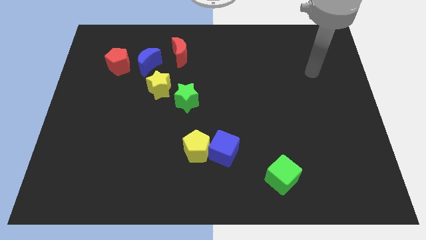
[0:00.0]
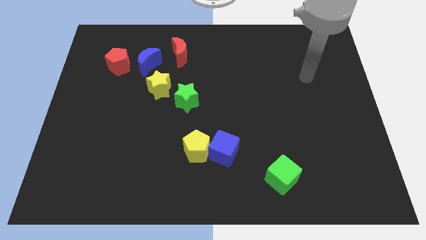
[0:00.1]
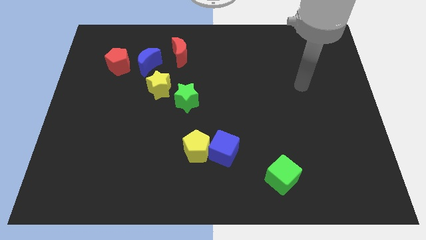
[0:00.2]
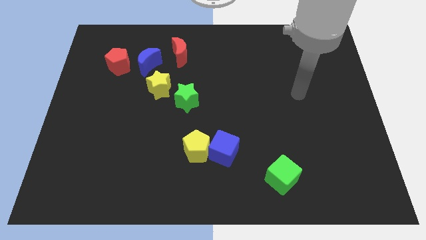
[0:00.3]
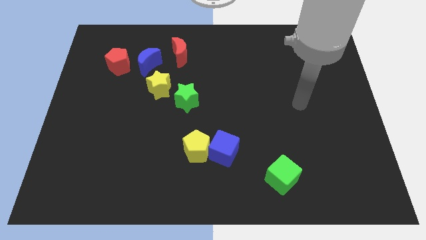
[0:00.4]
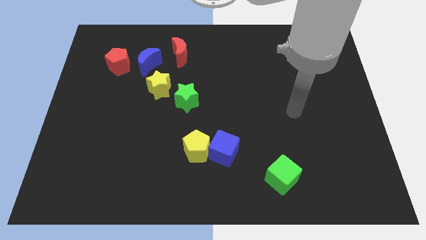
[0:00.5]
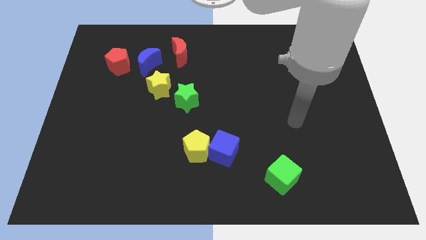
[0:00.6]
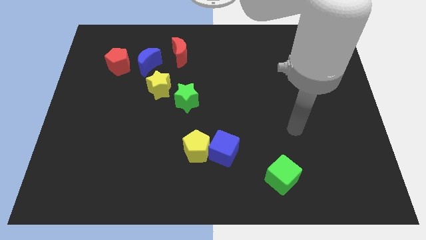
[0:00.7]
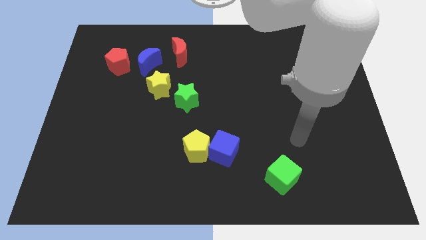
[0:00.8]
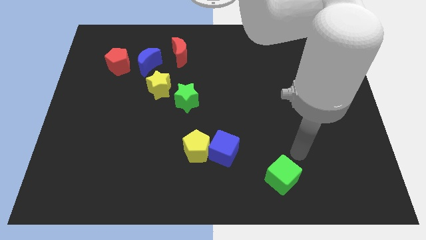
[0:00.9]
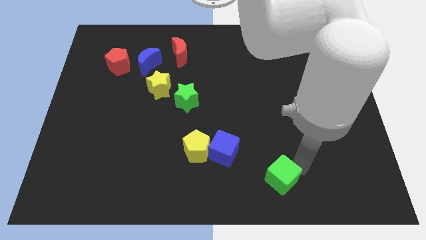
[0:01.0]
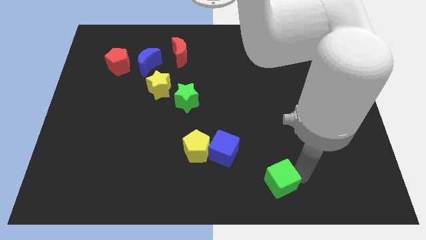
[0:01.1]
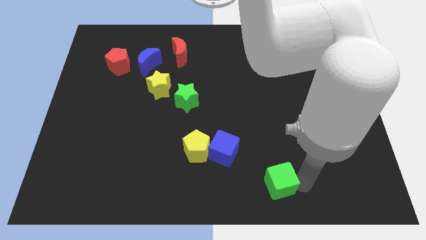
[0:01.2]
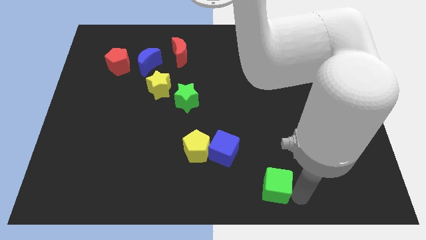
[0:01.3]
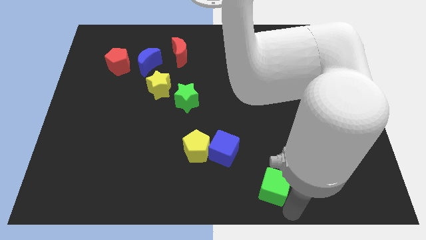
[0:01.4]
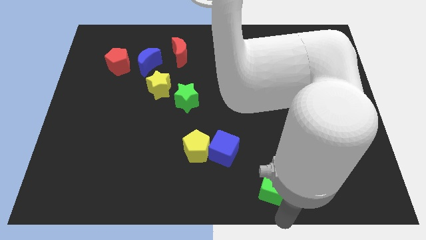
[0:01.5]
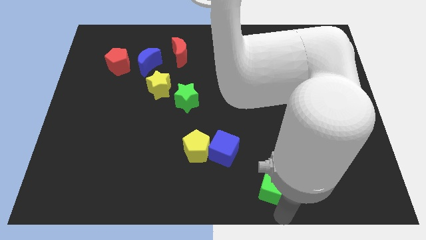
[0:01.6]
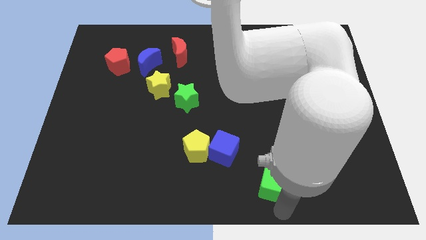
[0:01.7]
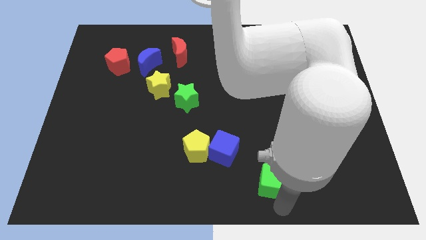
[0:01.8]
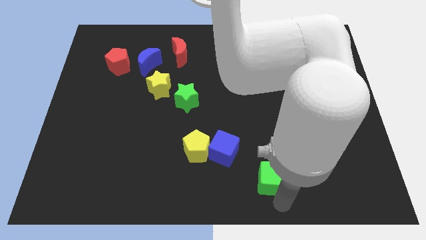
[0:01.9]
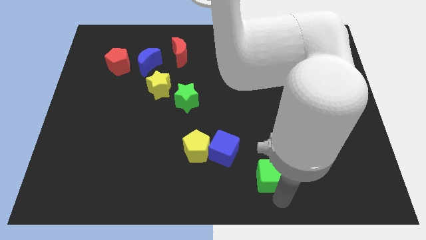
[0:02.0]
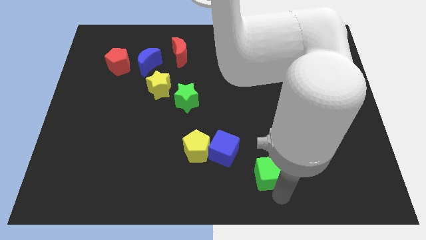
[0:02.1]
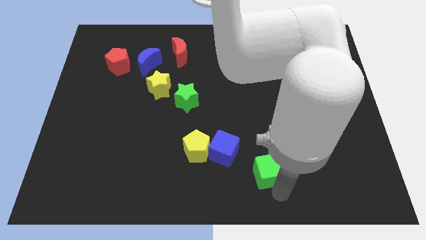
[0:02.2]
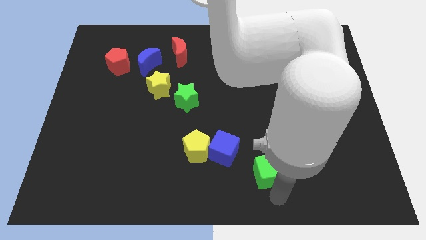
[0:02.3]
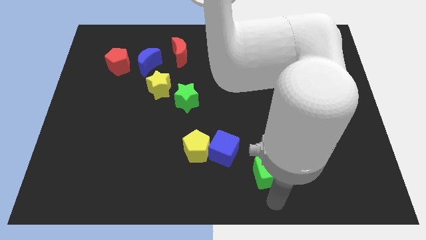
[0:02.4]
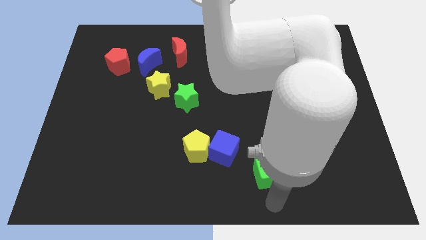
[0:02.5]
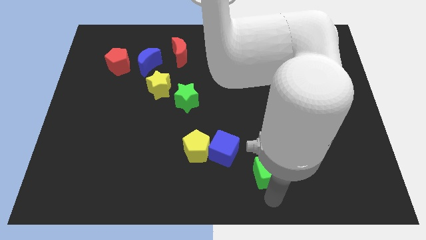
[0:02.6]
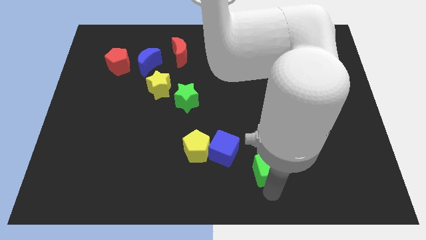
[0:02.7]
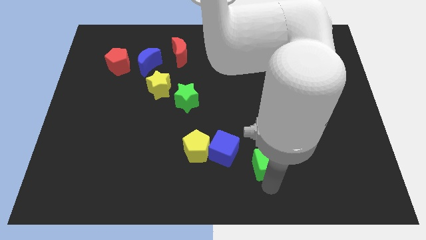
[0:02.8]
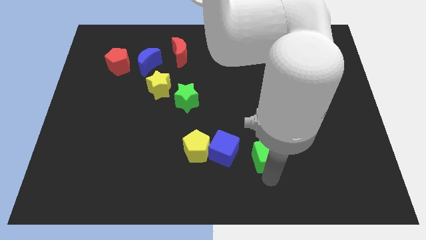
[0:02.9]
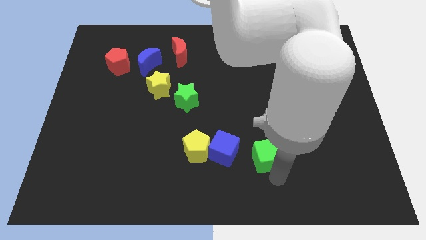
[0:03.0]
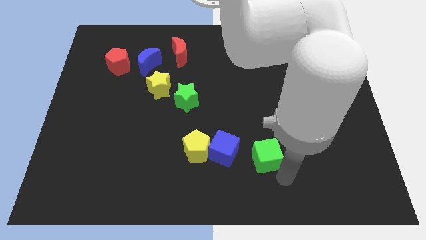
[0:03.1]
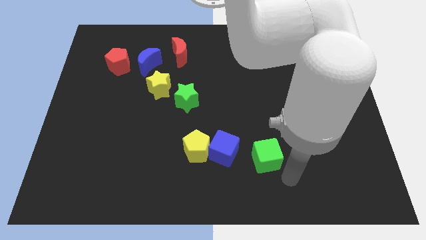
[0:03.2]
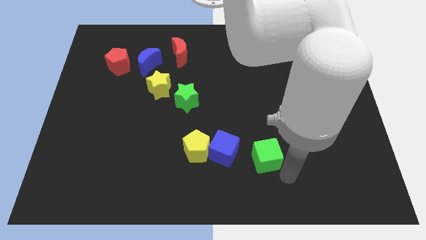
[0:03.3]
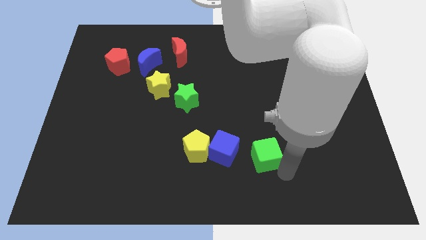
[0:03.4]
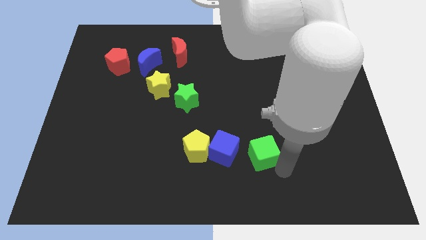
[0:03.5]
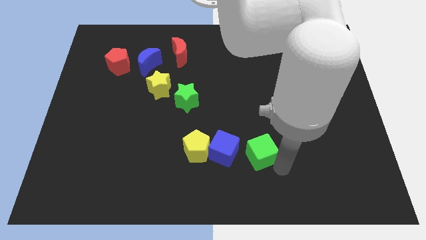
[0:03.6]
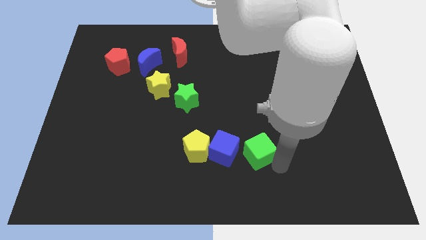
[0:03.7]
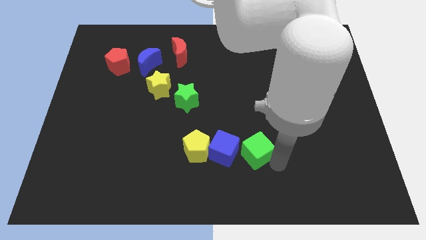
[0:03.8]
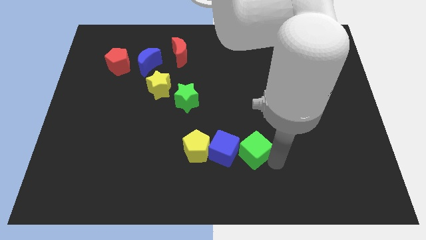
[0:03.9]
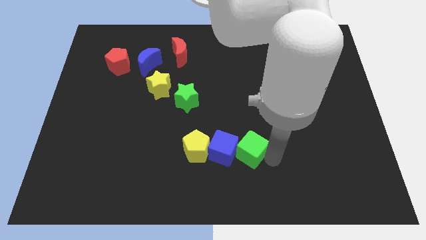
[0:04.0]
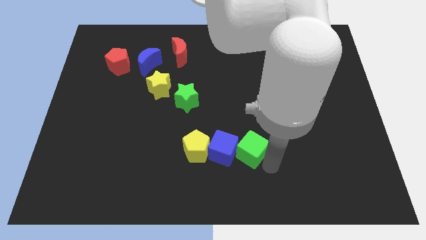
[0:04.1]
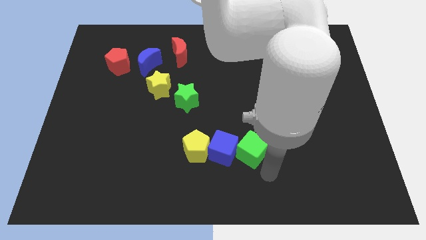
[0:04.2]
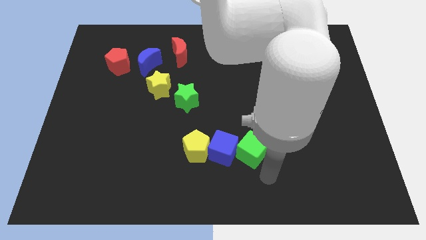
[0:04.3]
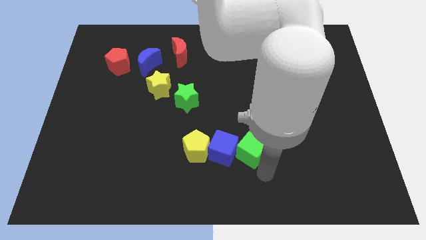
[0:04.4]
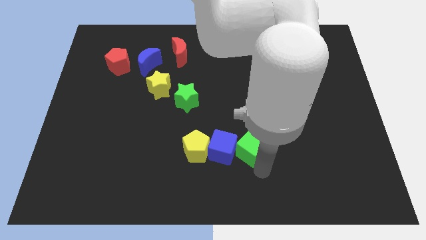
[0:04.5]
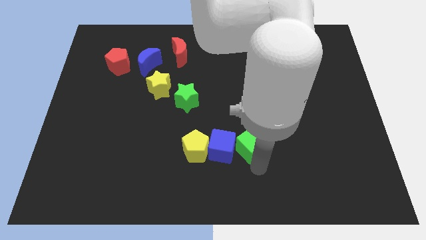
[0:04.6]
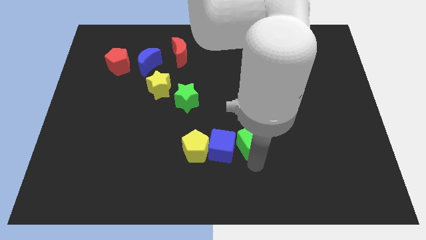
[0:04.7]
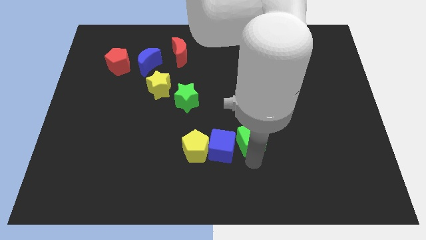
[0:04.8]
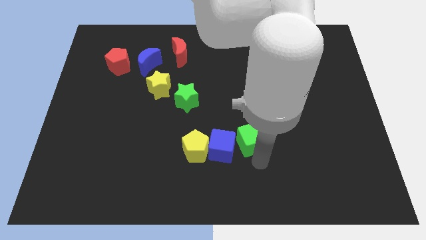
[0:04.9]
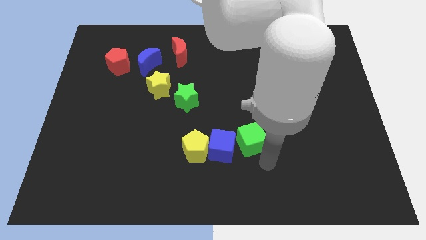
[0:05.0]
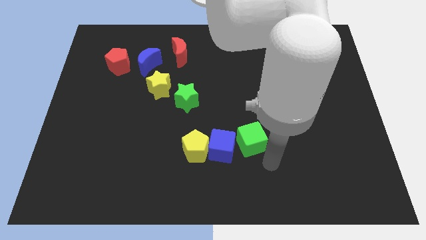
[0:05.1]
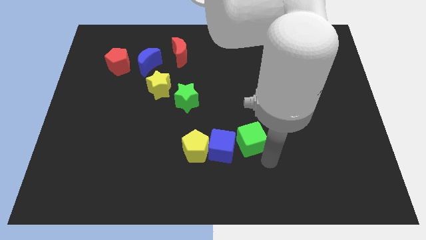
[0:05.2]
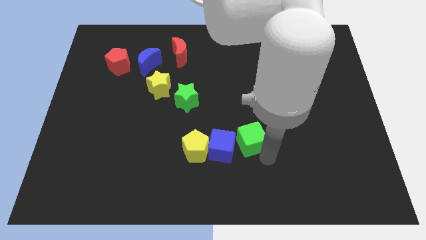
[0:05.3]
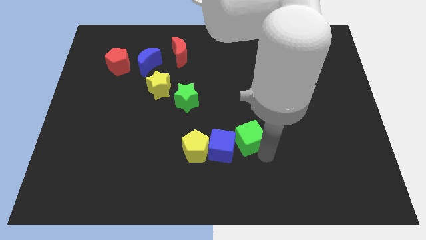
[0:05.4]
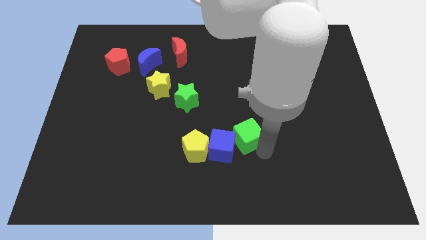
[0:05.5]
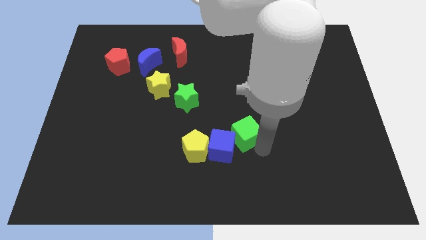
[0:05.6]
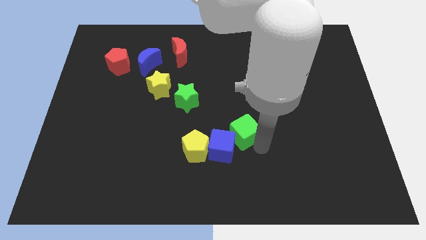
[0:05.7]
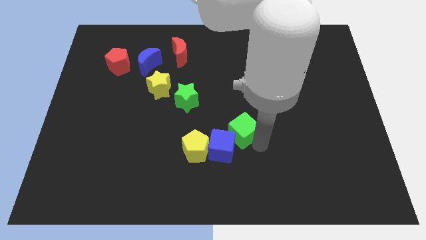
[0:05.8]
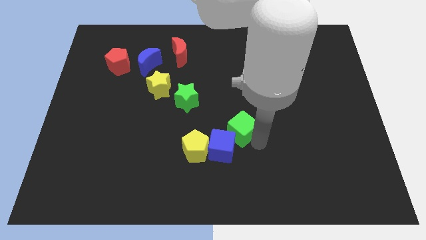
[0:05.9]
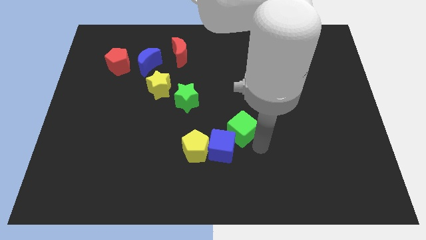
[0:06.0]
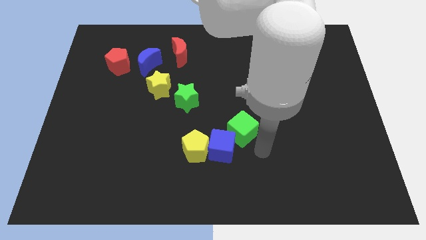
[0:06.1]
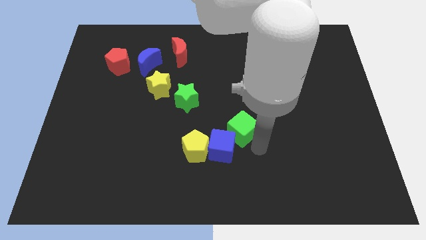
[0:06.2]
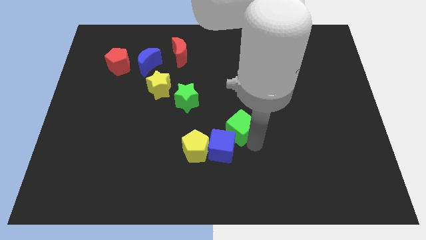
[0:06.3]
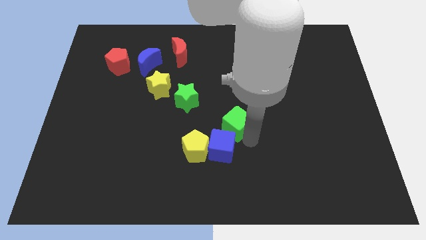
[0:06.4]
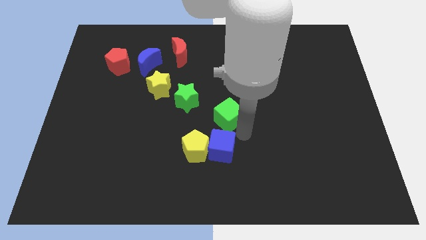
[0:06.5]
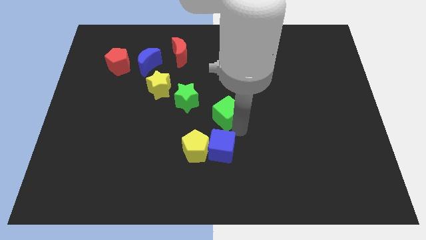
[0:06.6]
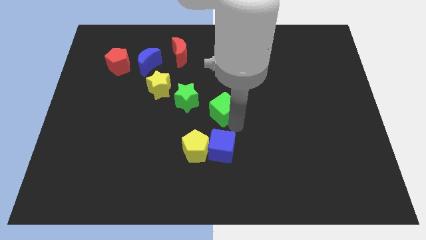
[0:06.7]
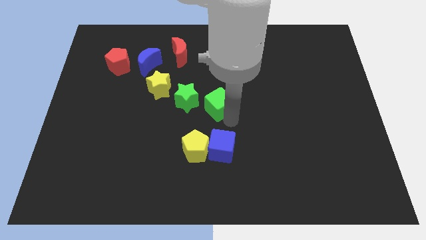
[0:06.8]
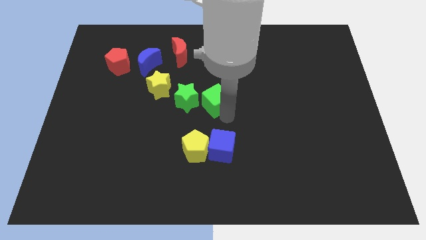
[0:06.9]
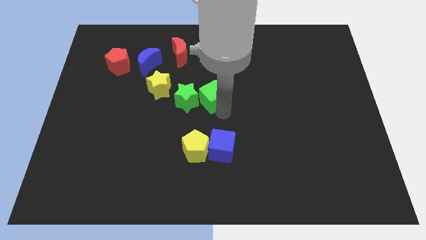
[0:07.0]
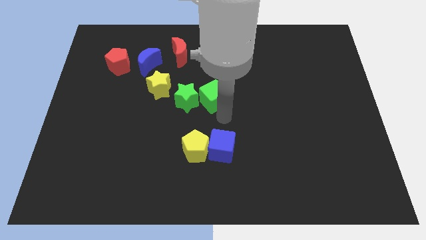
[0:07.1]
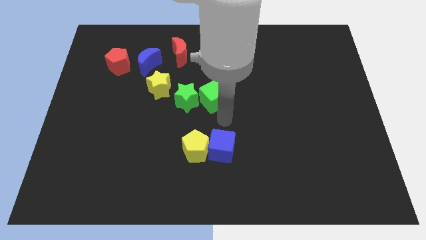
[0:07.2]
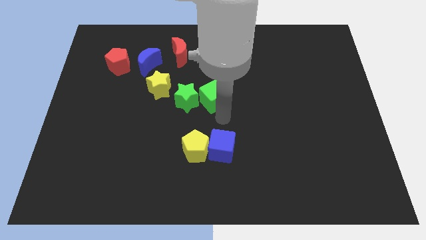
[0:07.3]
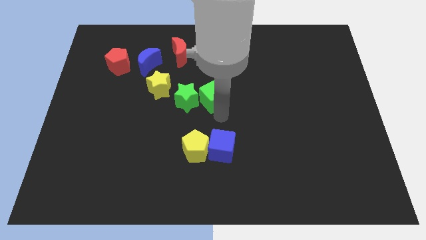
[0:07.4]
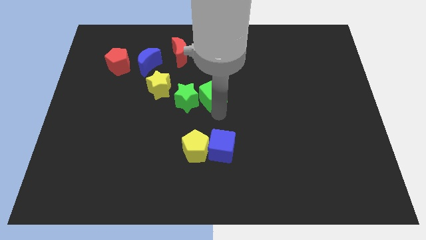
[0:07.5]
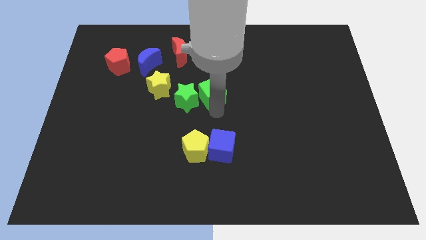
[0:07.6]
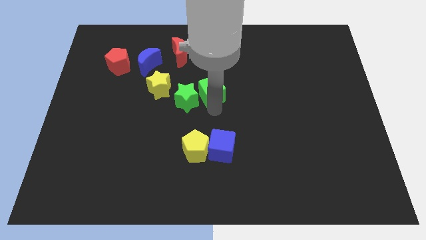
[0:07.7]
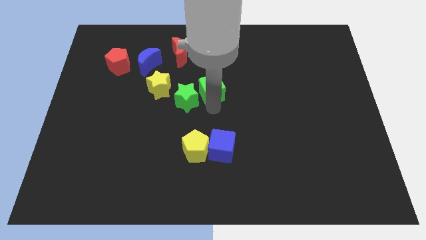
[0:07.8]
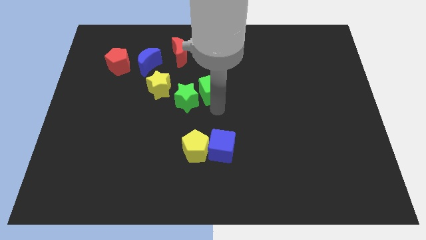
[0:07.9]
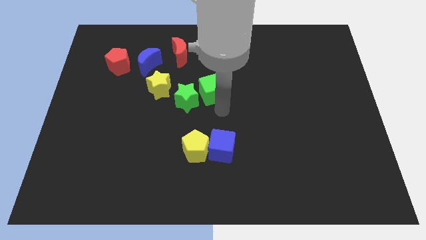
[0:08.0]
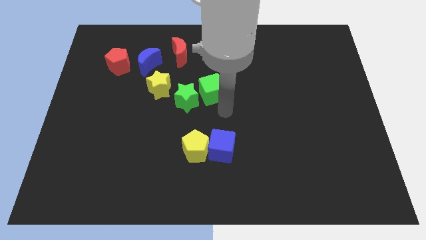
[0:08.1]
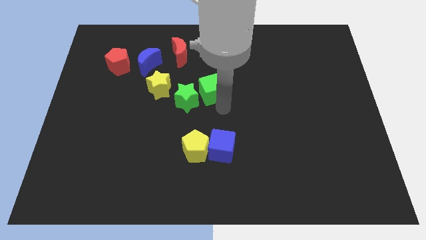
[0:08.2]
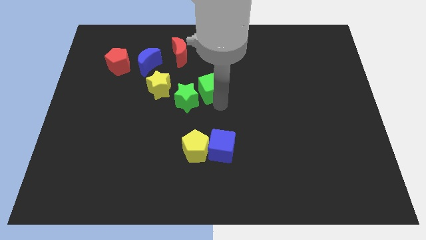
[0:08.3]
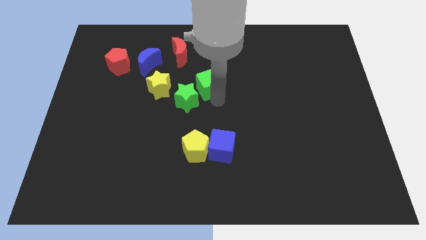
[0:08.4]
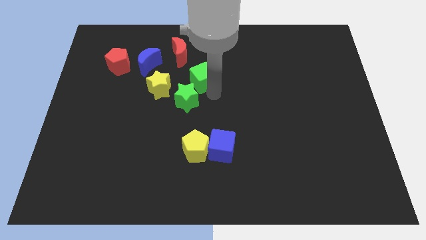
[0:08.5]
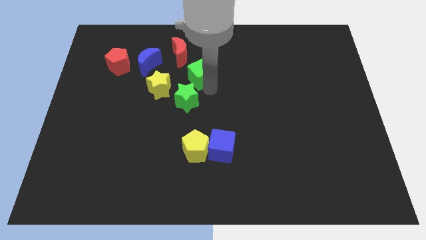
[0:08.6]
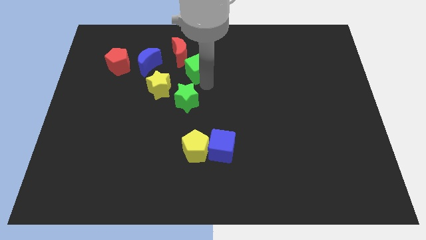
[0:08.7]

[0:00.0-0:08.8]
move the green cube right of the blue moon
